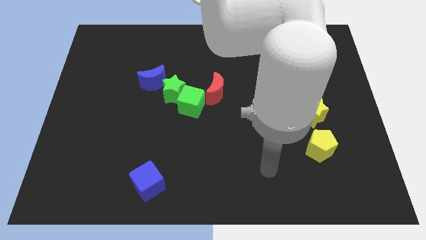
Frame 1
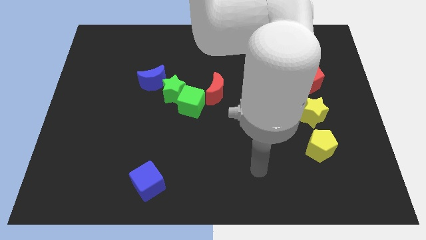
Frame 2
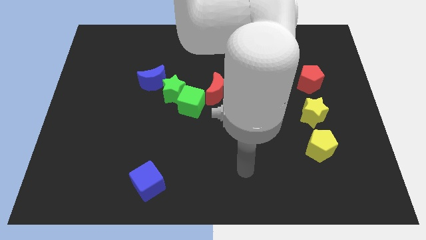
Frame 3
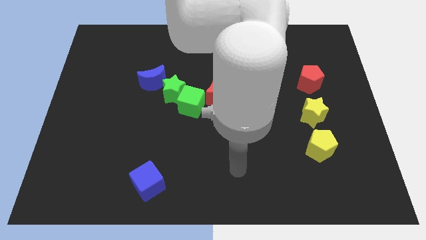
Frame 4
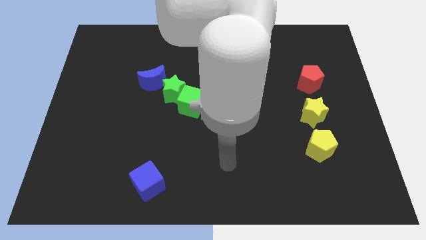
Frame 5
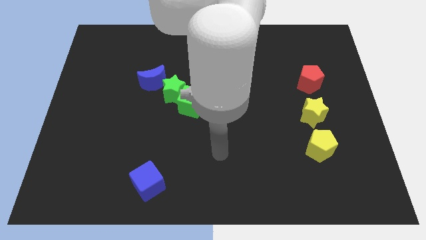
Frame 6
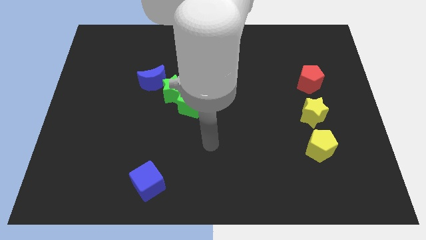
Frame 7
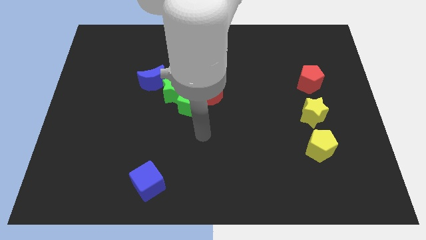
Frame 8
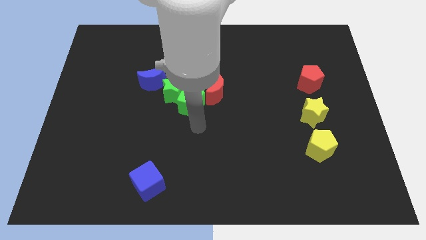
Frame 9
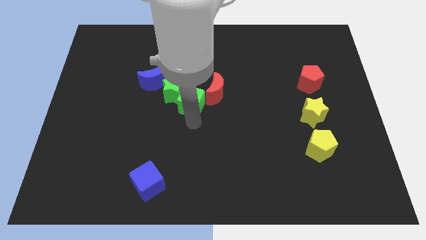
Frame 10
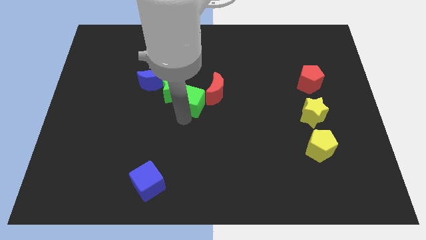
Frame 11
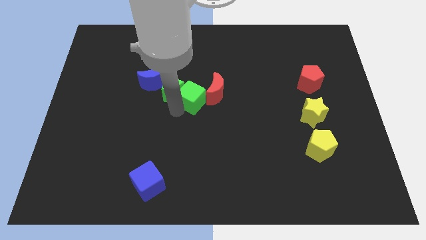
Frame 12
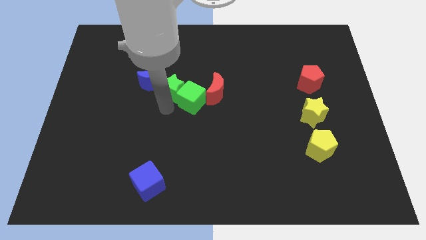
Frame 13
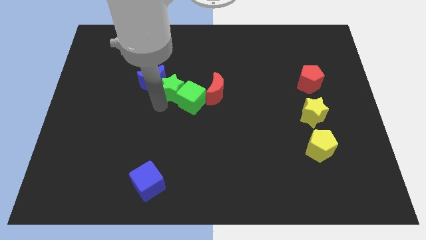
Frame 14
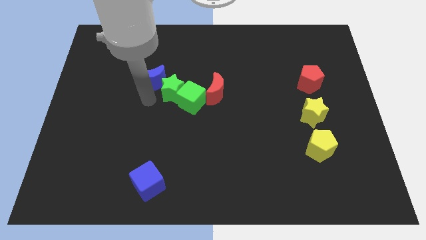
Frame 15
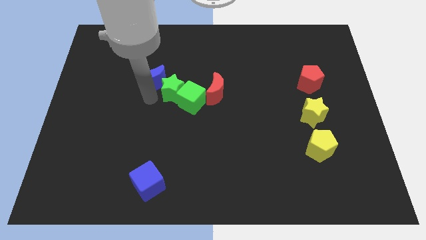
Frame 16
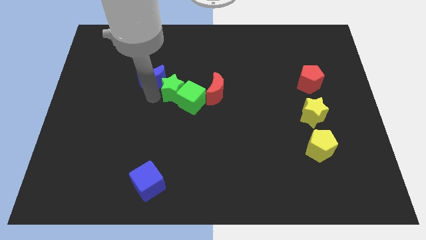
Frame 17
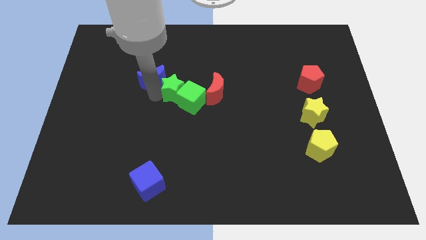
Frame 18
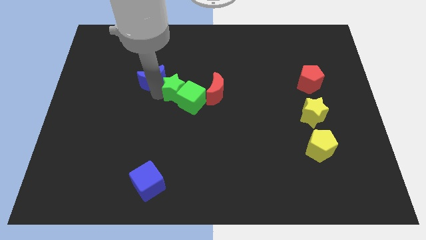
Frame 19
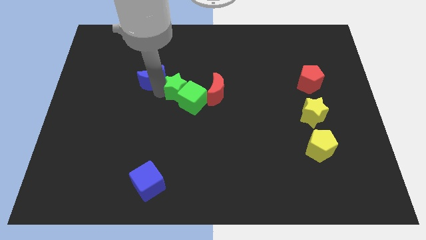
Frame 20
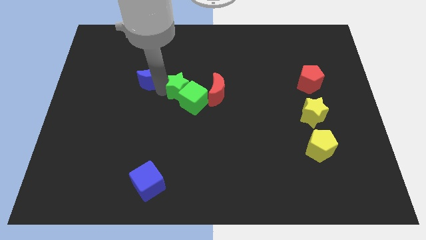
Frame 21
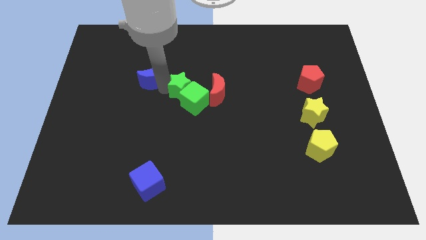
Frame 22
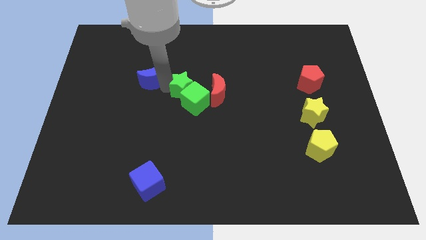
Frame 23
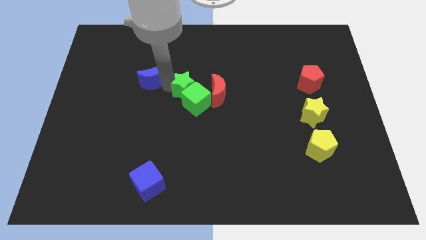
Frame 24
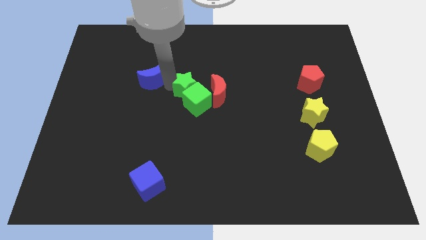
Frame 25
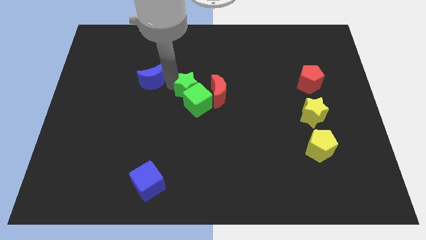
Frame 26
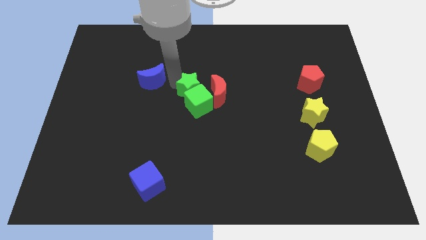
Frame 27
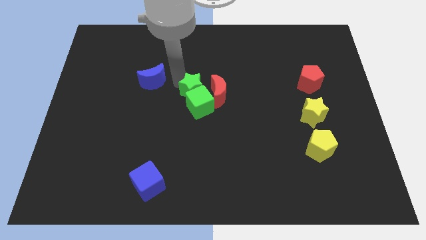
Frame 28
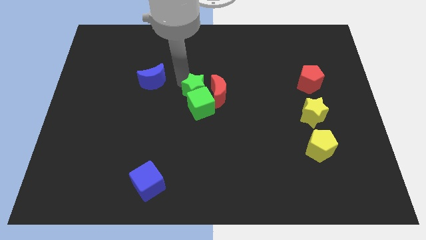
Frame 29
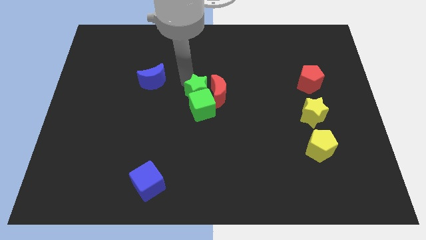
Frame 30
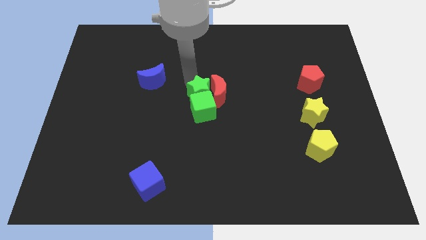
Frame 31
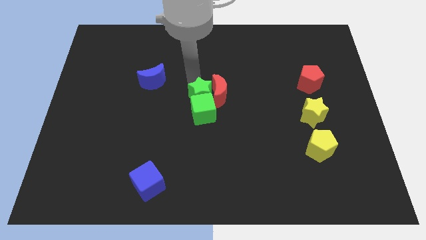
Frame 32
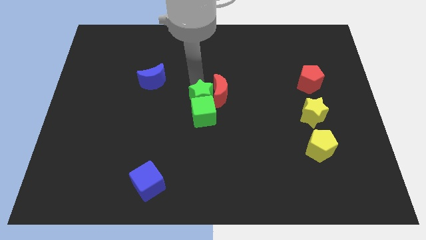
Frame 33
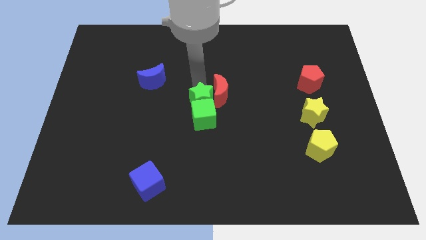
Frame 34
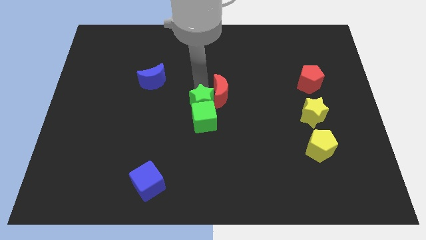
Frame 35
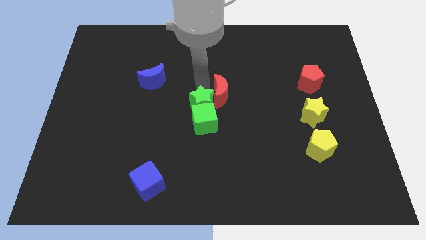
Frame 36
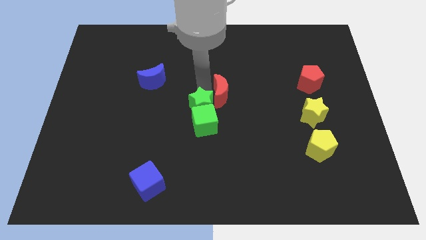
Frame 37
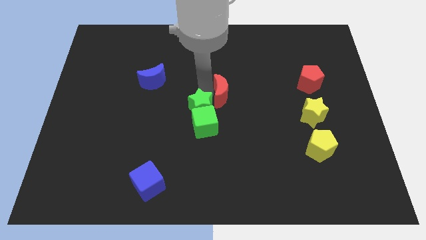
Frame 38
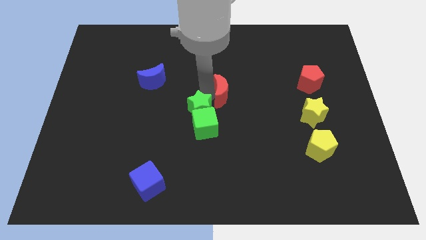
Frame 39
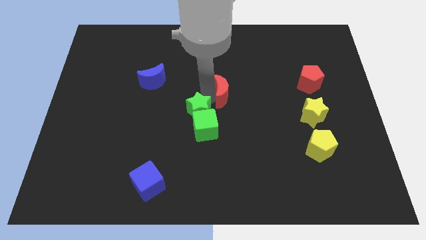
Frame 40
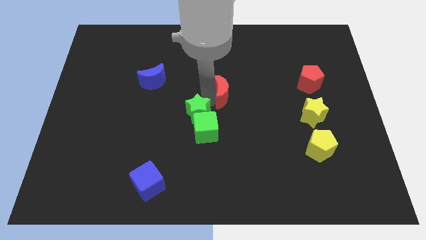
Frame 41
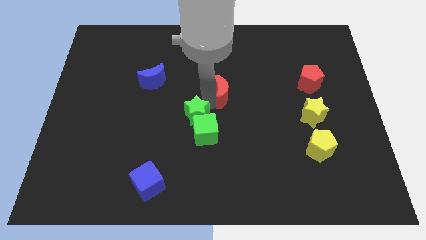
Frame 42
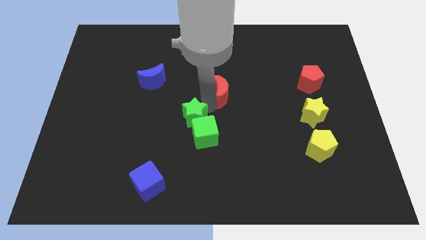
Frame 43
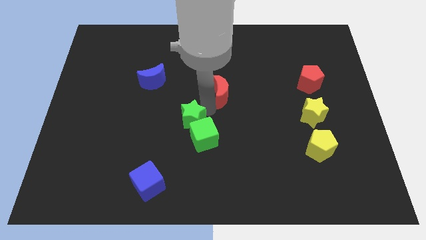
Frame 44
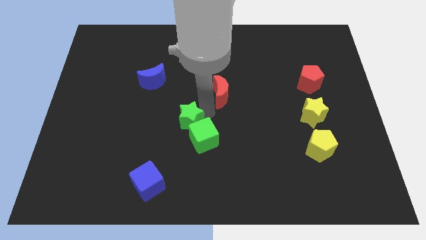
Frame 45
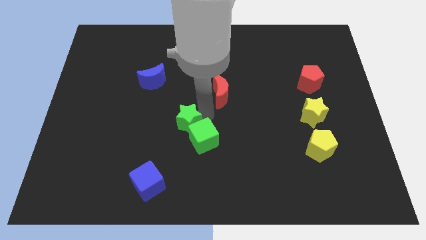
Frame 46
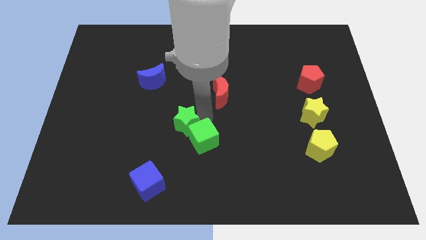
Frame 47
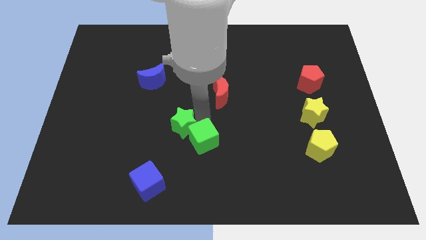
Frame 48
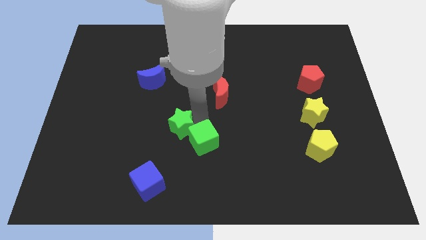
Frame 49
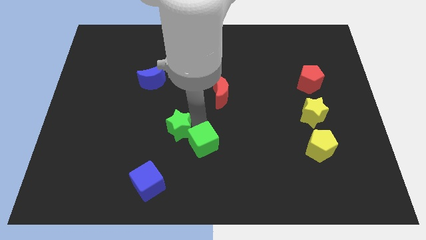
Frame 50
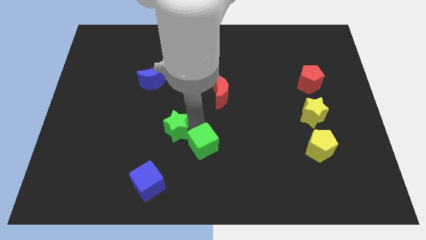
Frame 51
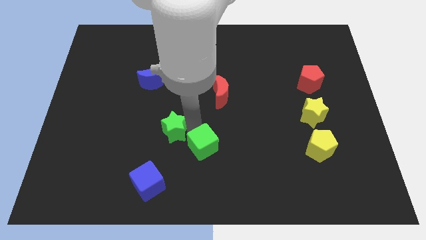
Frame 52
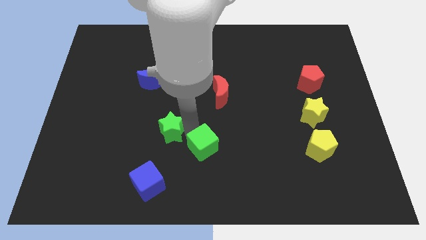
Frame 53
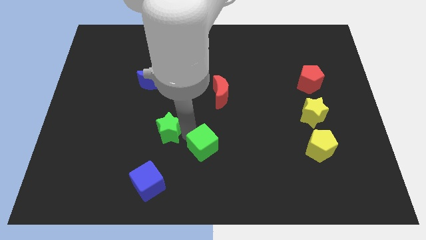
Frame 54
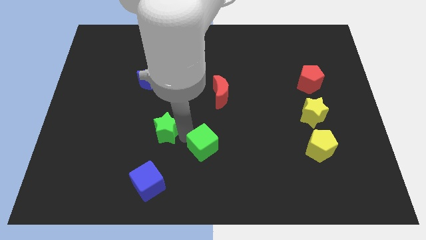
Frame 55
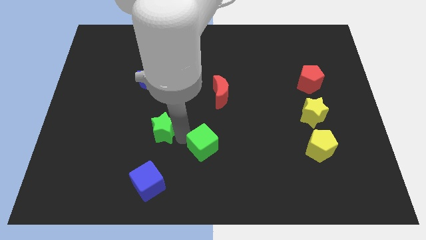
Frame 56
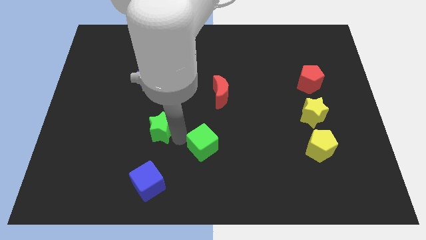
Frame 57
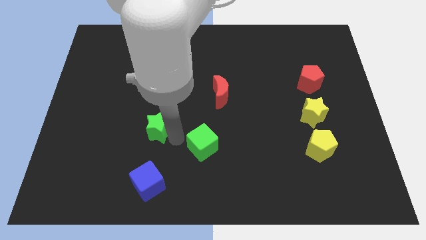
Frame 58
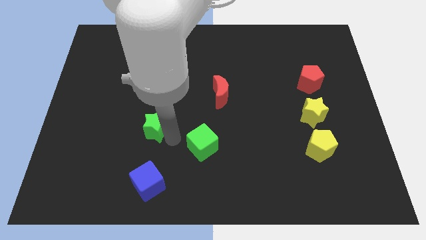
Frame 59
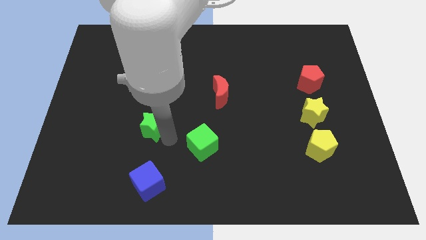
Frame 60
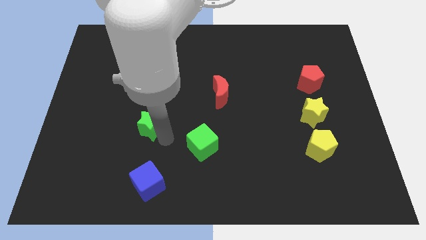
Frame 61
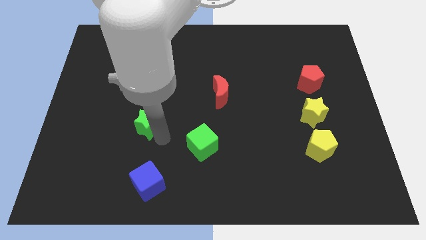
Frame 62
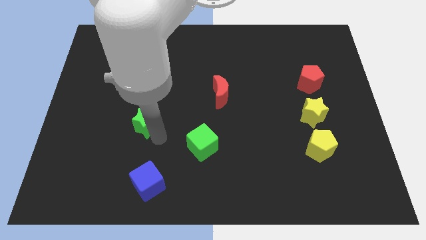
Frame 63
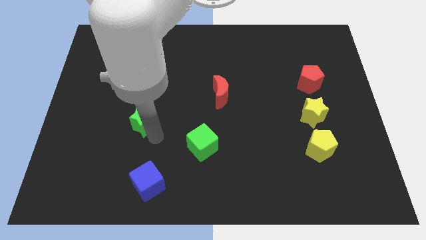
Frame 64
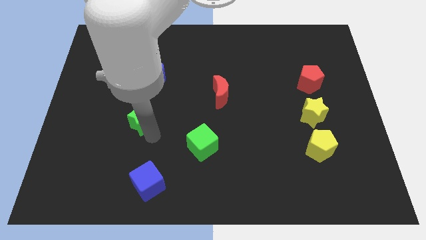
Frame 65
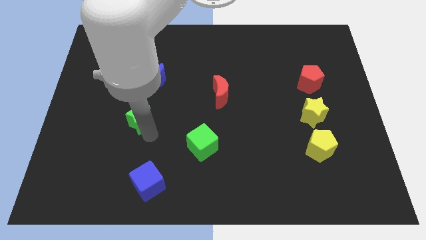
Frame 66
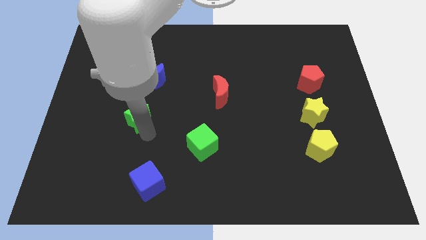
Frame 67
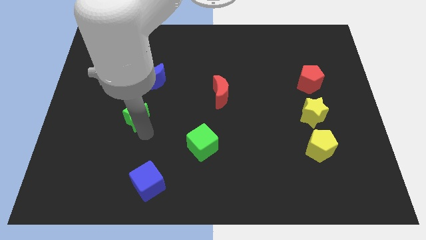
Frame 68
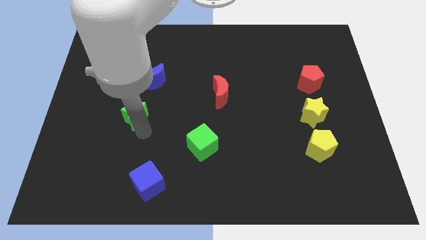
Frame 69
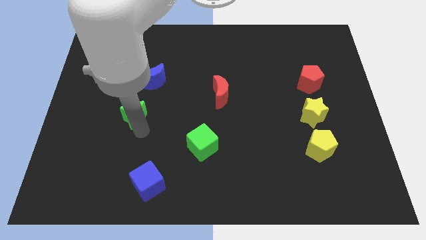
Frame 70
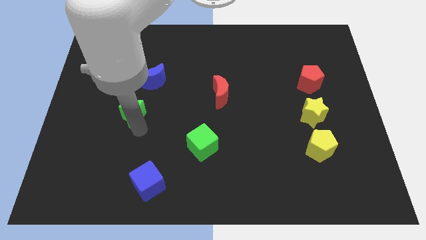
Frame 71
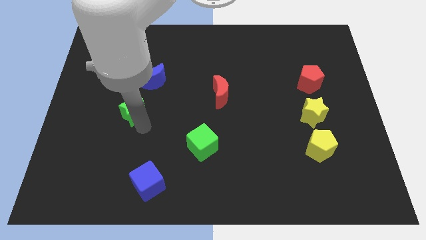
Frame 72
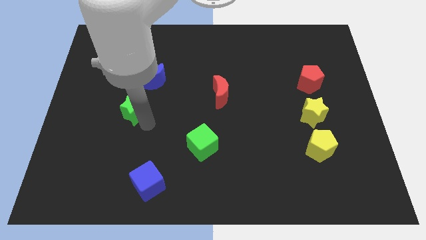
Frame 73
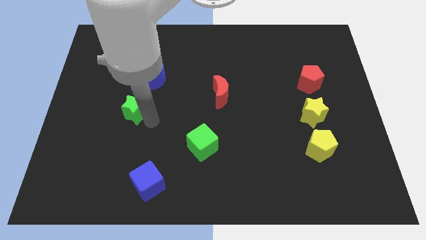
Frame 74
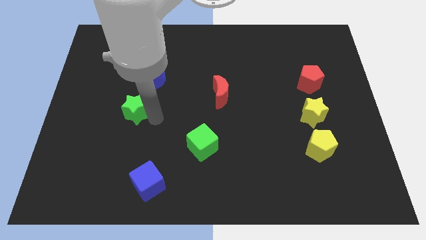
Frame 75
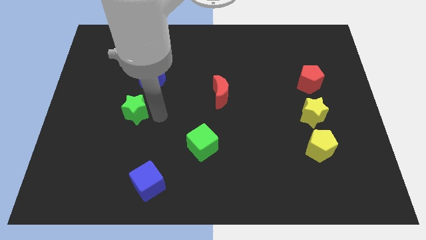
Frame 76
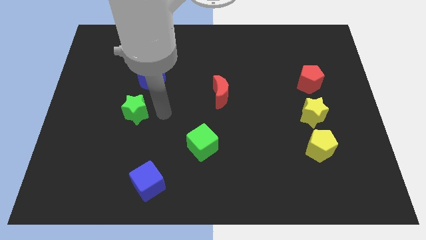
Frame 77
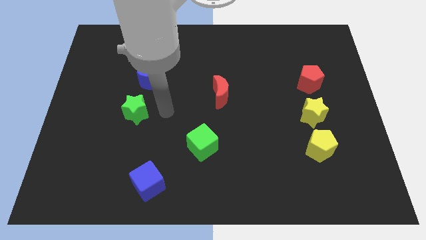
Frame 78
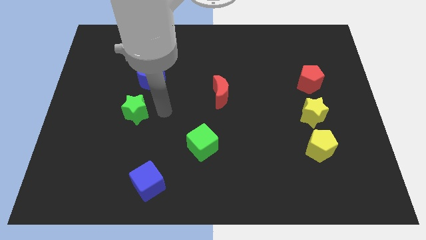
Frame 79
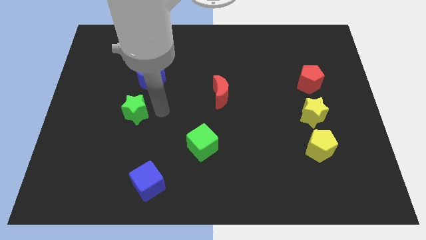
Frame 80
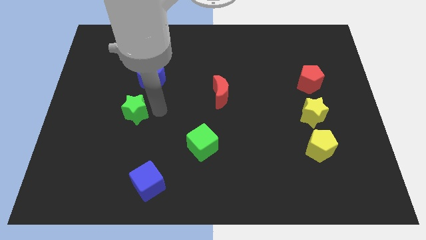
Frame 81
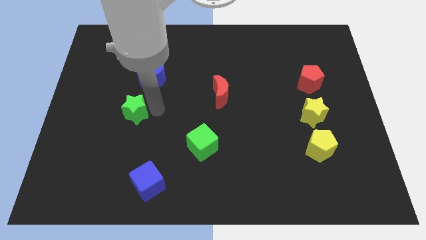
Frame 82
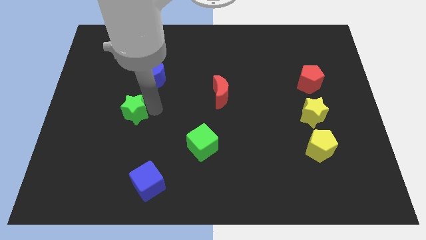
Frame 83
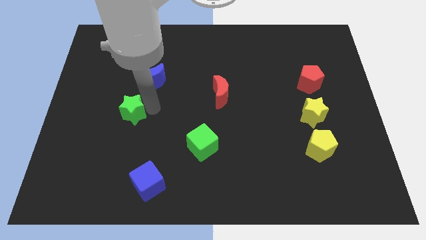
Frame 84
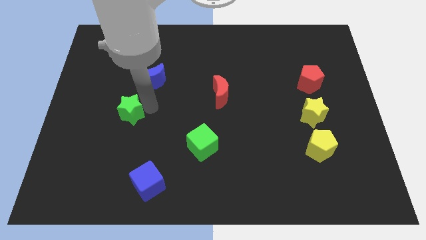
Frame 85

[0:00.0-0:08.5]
move the green star away from the green cube and blue moon

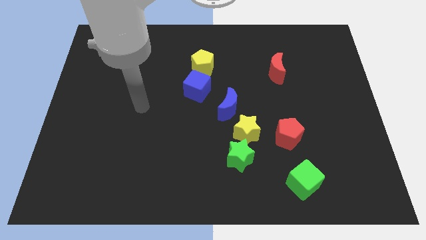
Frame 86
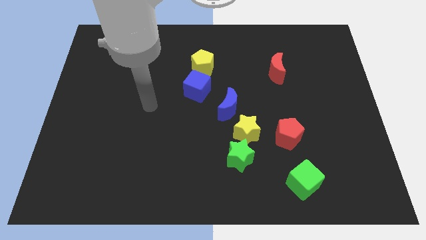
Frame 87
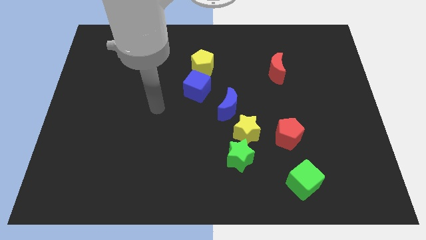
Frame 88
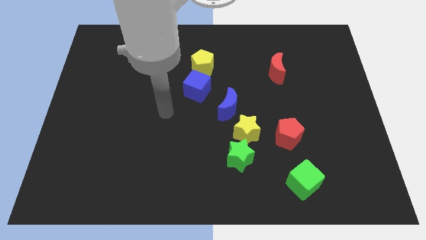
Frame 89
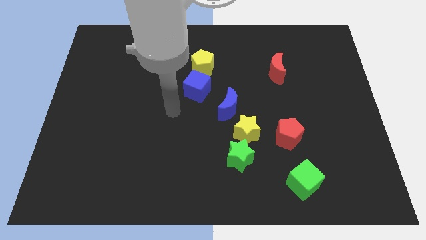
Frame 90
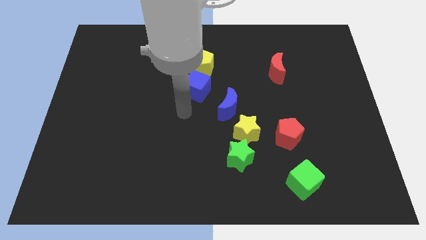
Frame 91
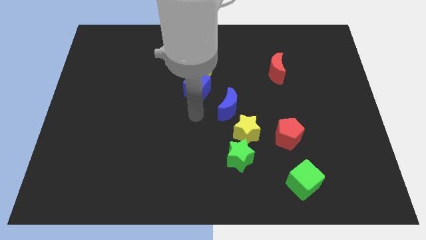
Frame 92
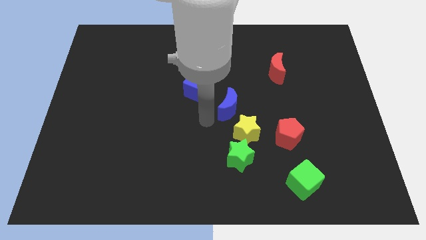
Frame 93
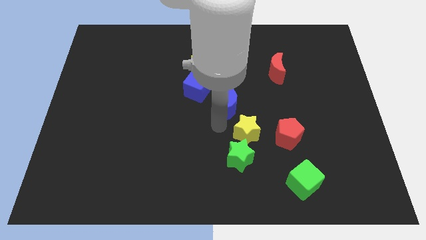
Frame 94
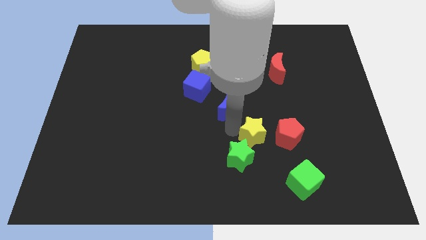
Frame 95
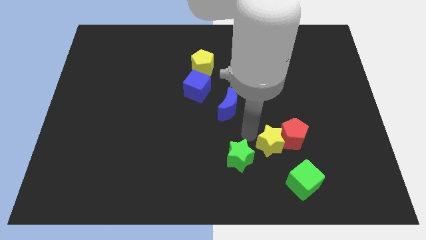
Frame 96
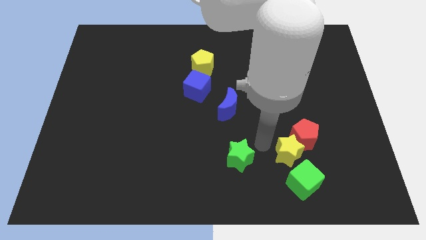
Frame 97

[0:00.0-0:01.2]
pull the green star apart from the yellow star
